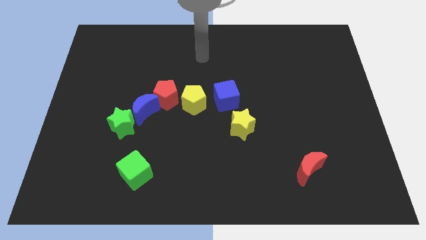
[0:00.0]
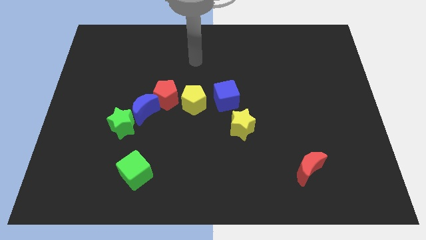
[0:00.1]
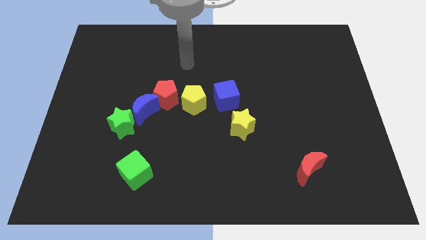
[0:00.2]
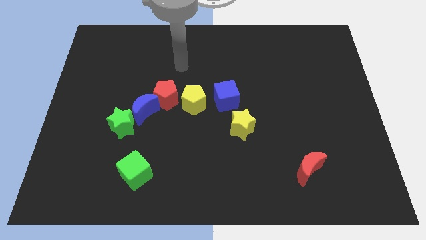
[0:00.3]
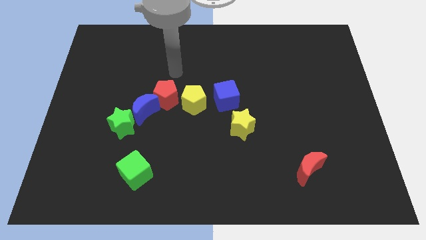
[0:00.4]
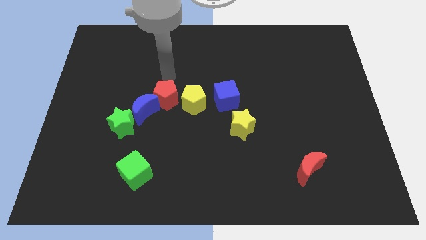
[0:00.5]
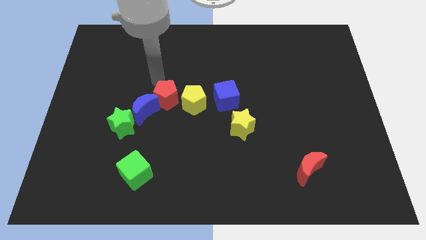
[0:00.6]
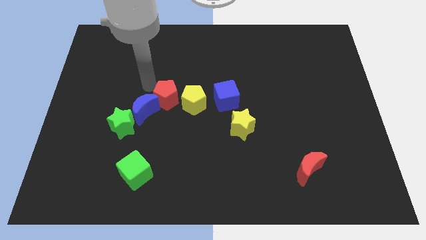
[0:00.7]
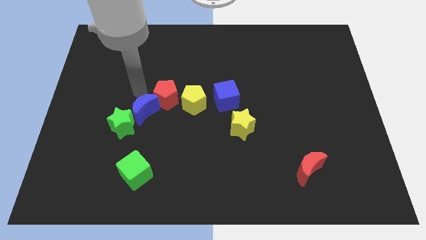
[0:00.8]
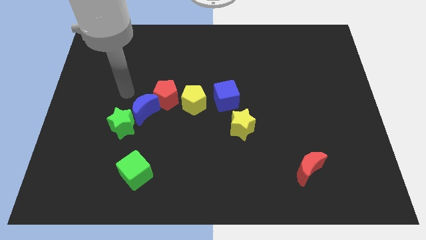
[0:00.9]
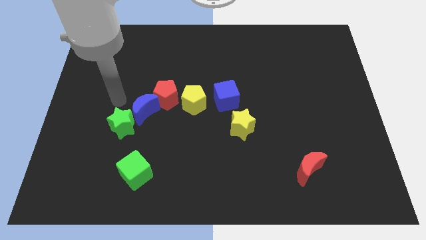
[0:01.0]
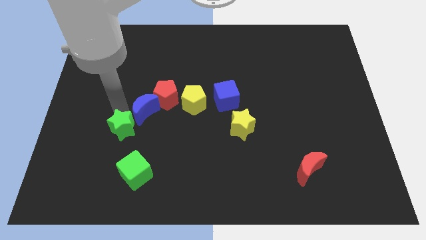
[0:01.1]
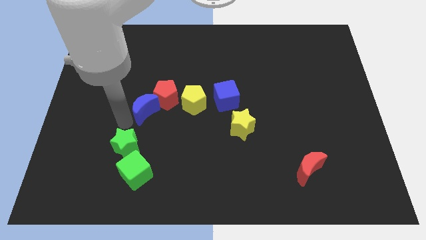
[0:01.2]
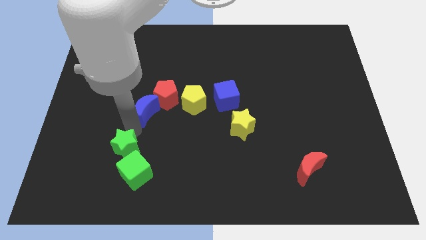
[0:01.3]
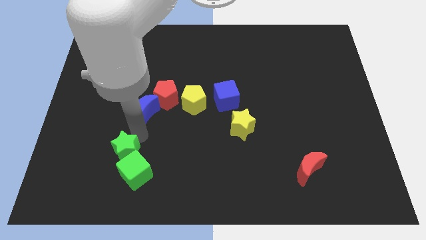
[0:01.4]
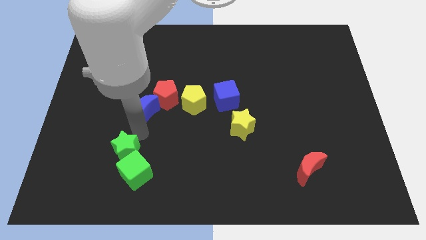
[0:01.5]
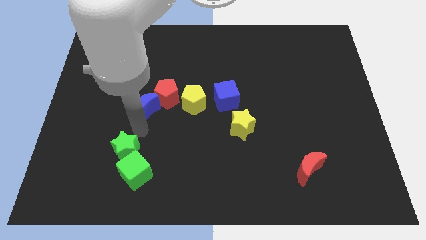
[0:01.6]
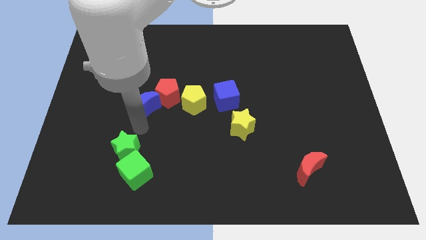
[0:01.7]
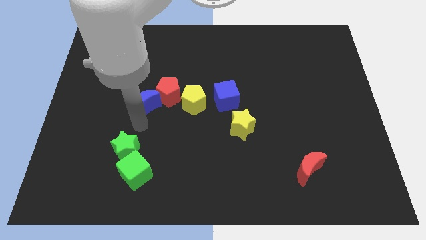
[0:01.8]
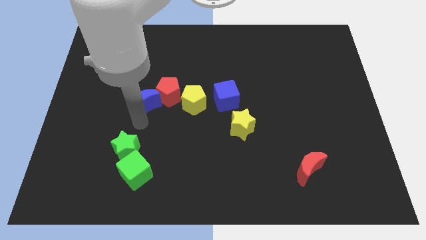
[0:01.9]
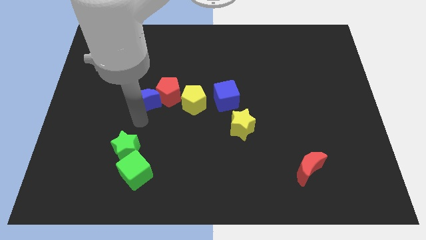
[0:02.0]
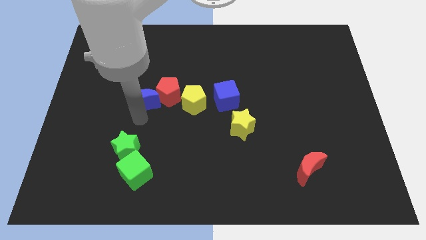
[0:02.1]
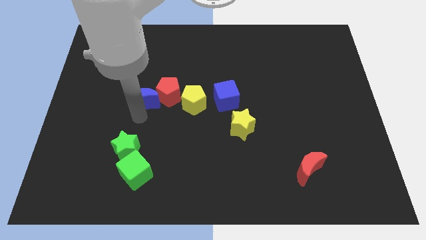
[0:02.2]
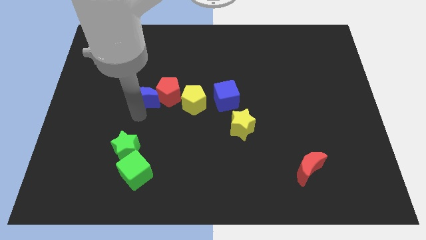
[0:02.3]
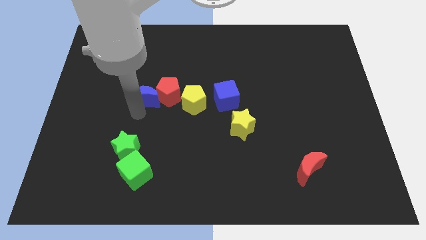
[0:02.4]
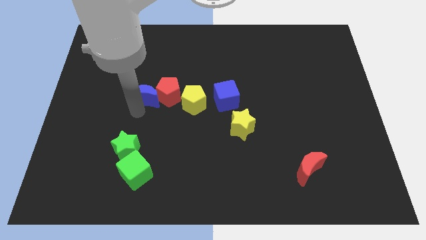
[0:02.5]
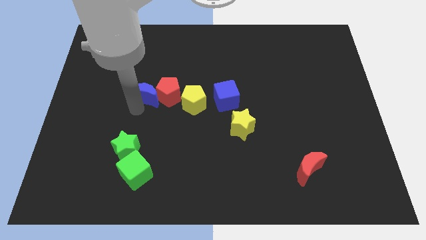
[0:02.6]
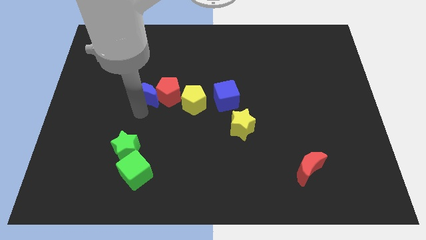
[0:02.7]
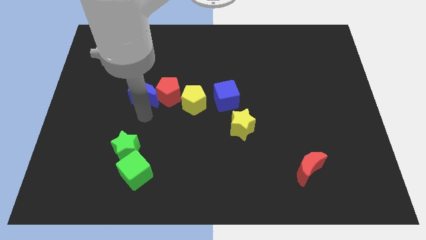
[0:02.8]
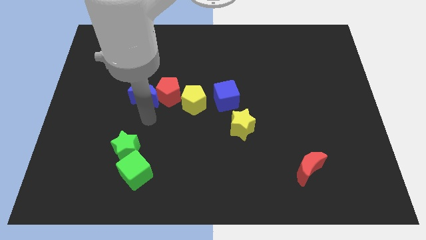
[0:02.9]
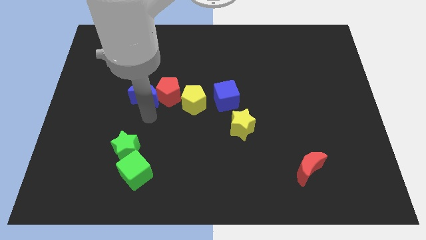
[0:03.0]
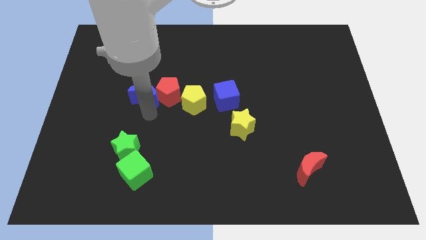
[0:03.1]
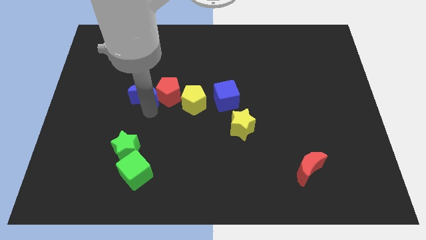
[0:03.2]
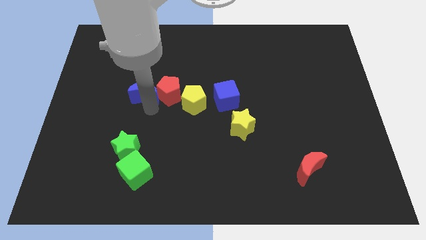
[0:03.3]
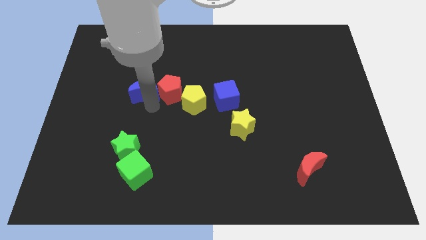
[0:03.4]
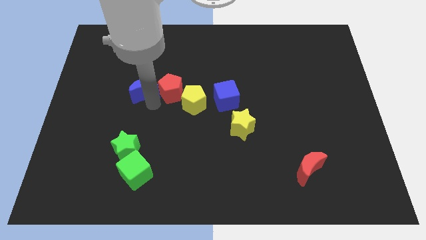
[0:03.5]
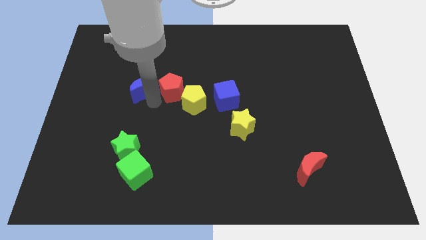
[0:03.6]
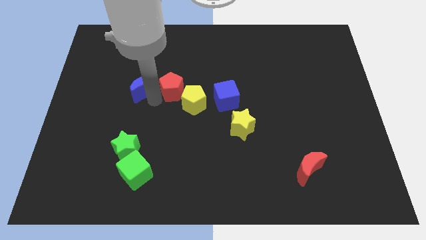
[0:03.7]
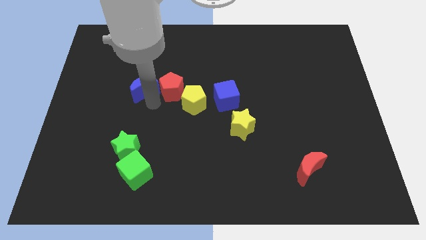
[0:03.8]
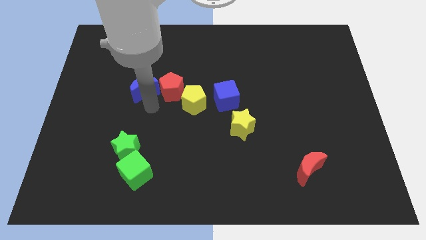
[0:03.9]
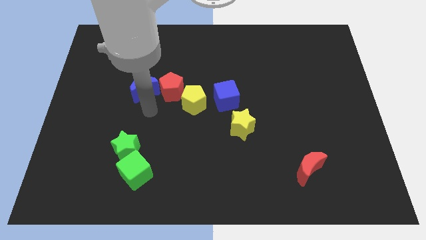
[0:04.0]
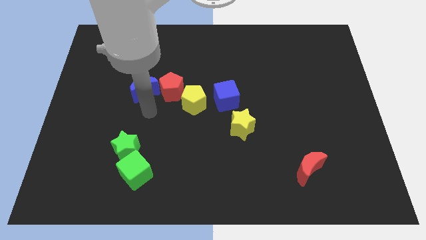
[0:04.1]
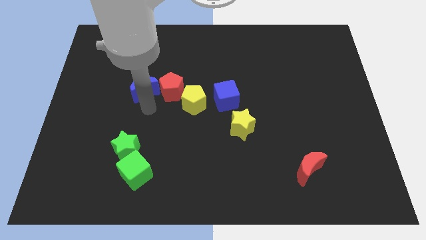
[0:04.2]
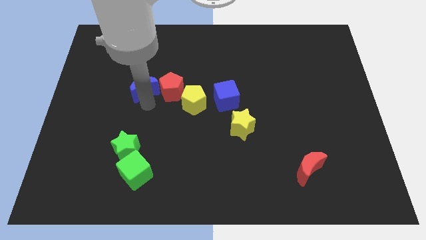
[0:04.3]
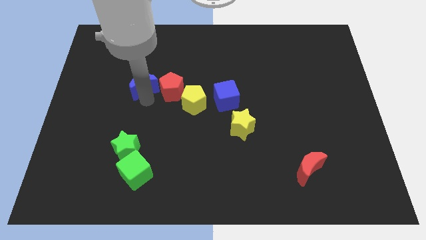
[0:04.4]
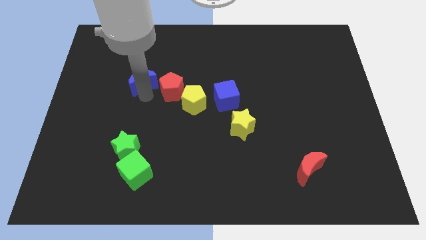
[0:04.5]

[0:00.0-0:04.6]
move the blue moon away from the red pentagon and green star

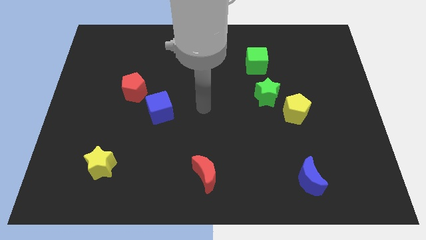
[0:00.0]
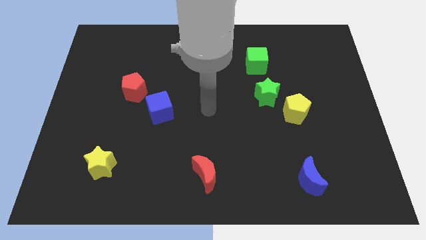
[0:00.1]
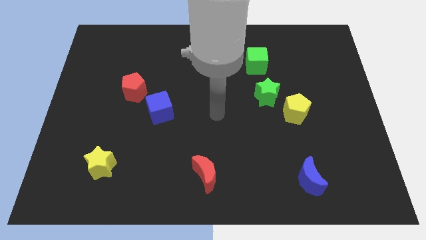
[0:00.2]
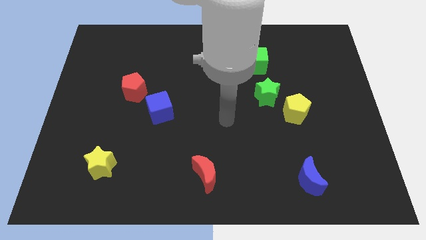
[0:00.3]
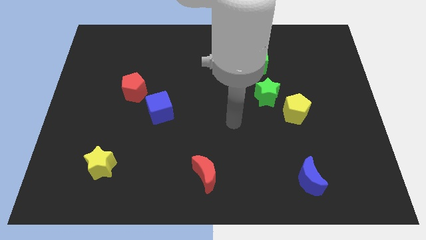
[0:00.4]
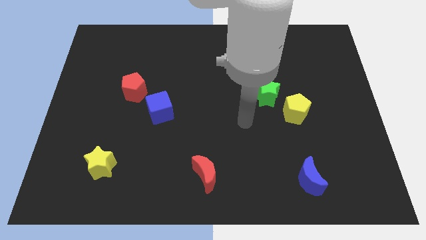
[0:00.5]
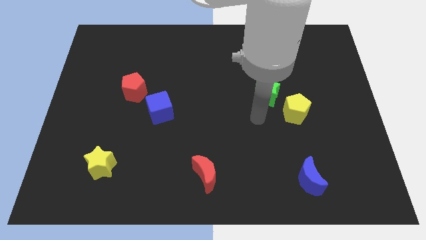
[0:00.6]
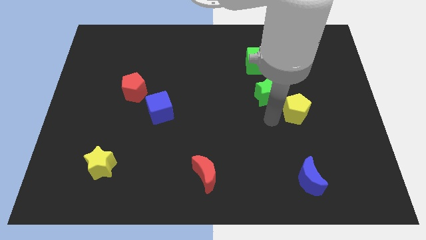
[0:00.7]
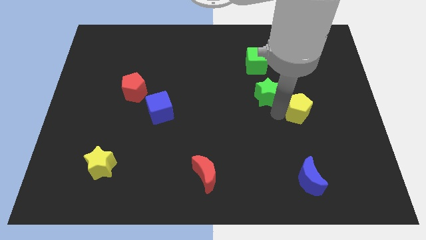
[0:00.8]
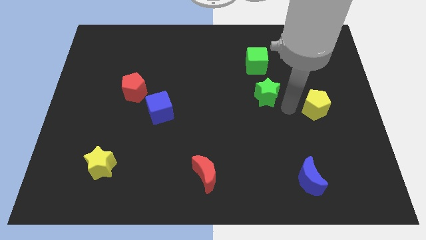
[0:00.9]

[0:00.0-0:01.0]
separate the green star from the yellow pentagon

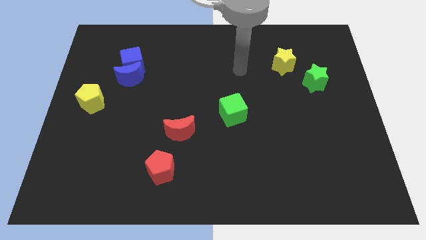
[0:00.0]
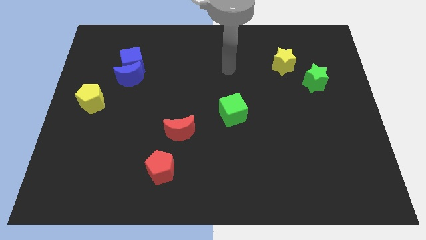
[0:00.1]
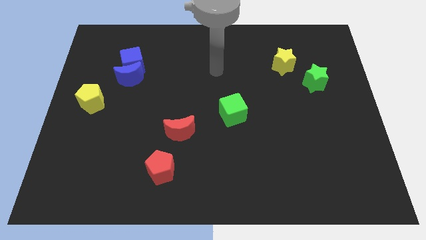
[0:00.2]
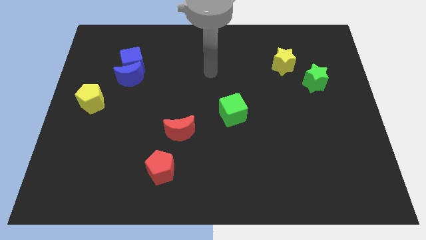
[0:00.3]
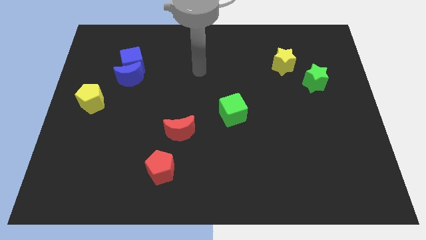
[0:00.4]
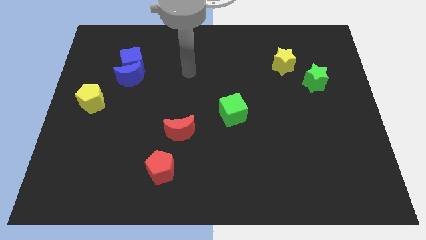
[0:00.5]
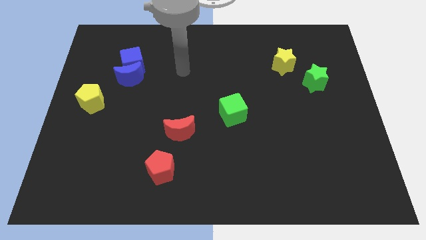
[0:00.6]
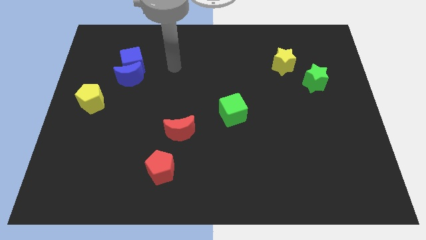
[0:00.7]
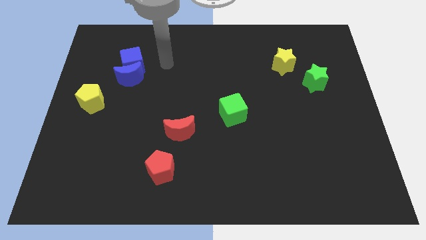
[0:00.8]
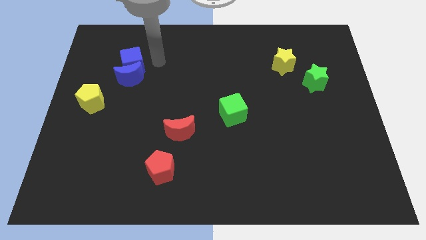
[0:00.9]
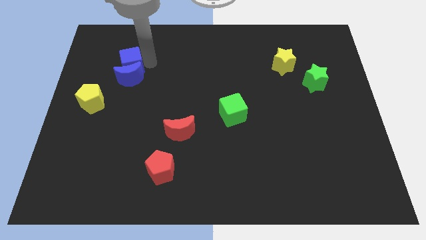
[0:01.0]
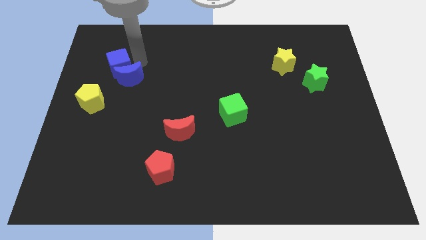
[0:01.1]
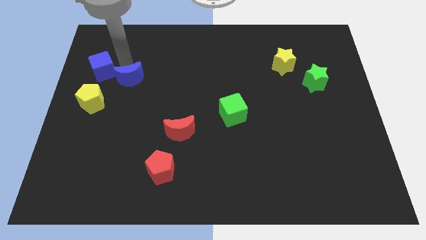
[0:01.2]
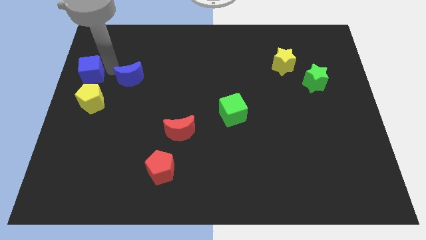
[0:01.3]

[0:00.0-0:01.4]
move the blue moon away from the blue cube

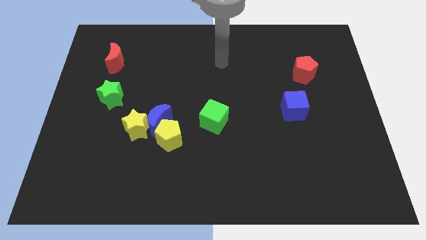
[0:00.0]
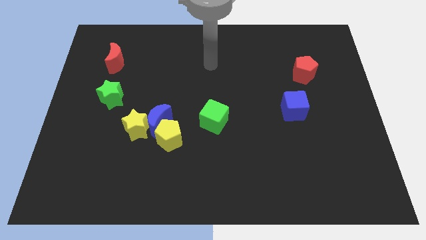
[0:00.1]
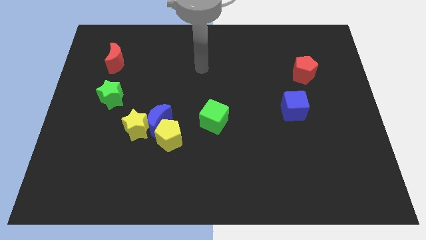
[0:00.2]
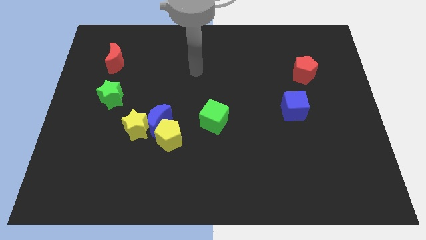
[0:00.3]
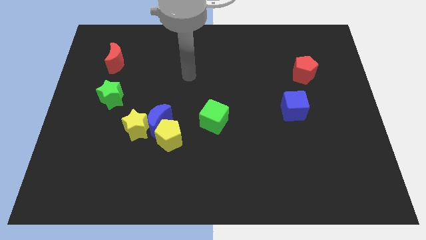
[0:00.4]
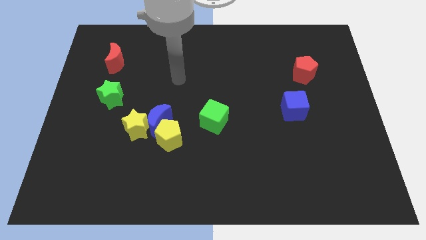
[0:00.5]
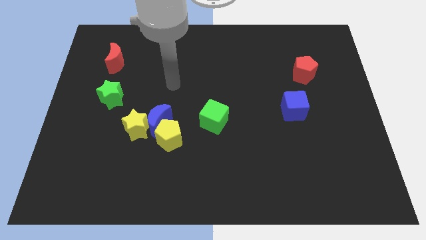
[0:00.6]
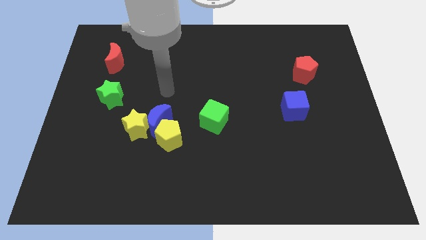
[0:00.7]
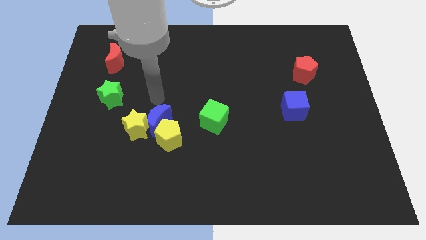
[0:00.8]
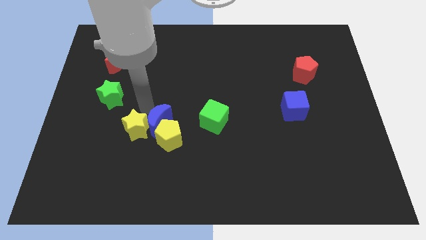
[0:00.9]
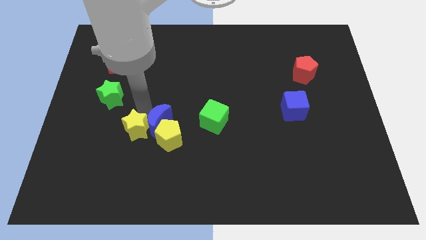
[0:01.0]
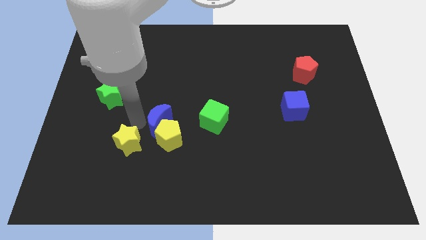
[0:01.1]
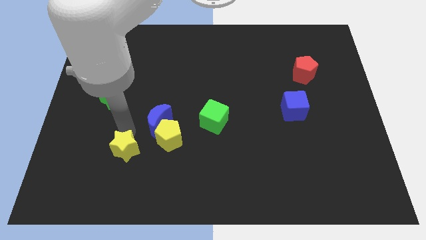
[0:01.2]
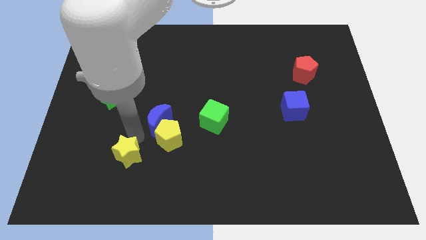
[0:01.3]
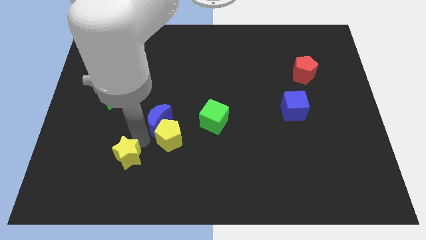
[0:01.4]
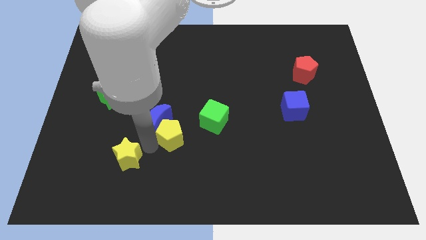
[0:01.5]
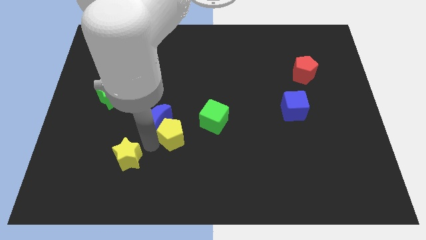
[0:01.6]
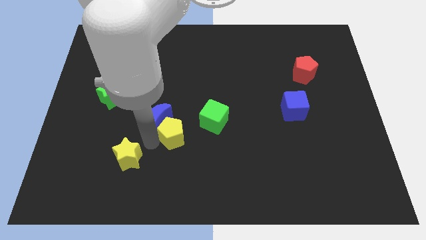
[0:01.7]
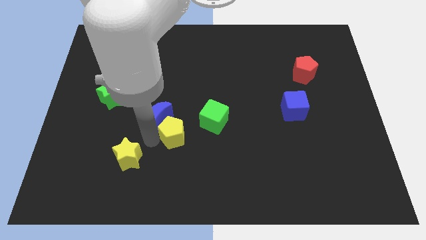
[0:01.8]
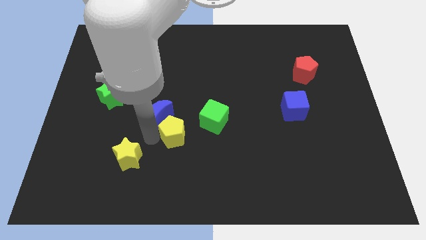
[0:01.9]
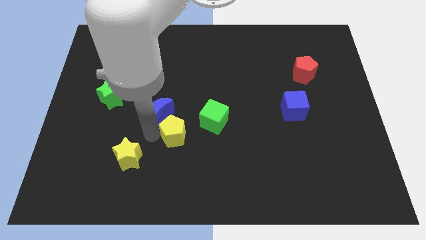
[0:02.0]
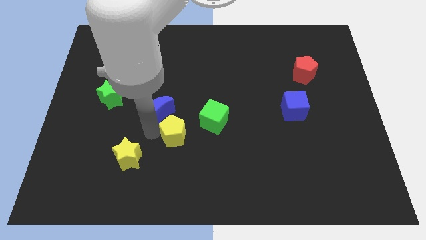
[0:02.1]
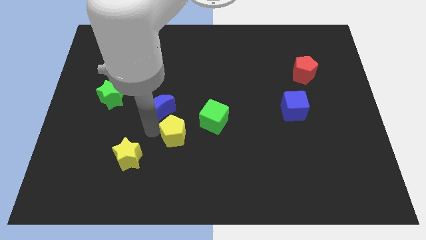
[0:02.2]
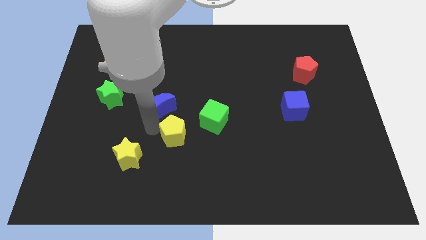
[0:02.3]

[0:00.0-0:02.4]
separate the blue moon from the yellow star and yellow pentagon
